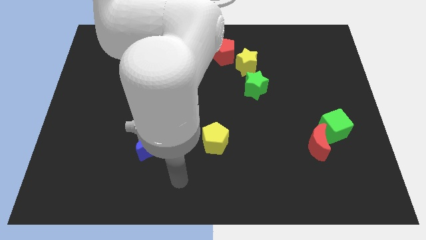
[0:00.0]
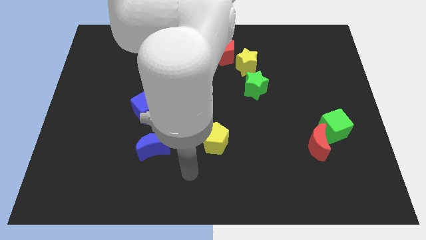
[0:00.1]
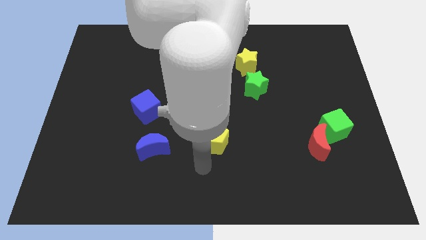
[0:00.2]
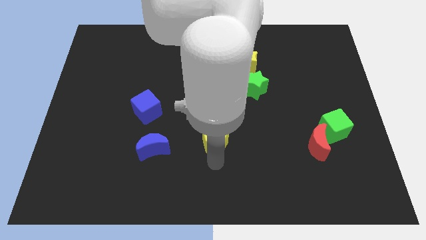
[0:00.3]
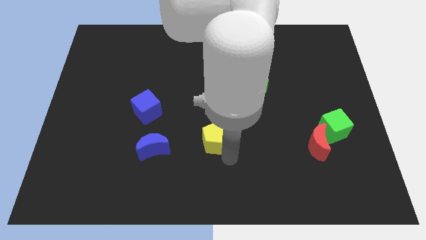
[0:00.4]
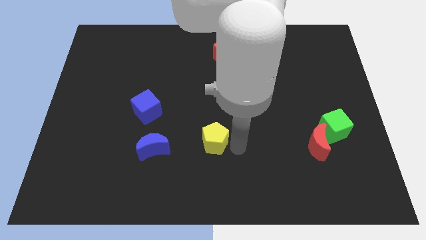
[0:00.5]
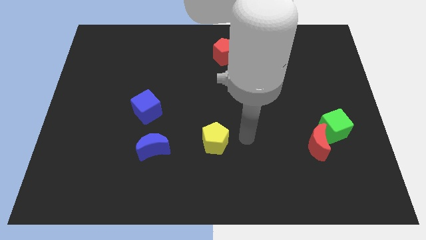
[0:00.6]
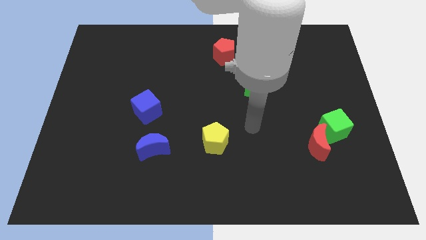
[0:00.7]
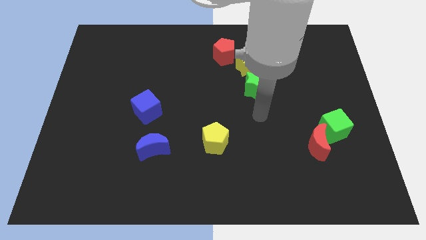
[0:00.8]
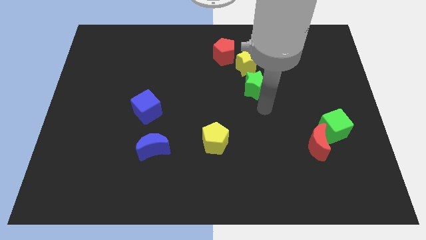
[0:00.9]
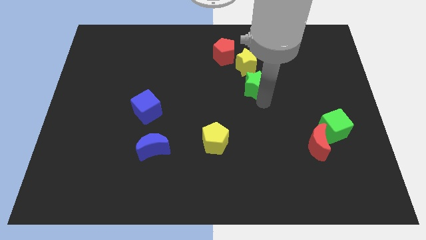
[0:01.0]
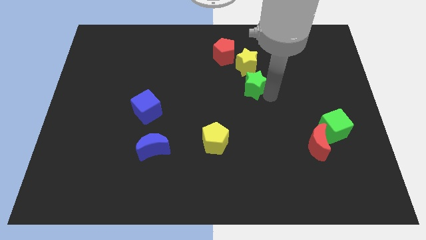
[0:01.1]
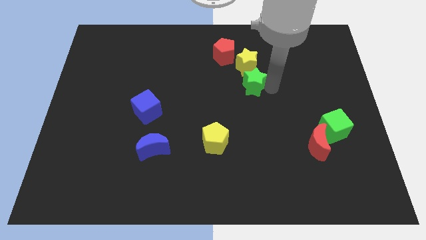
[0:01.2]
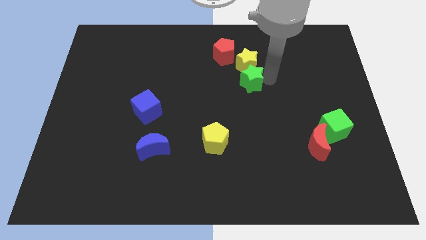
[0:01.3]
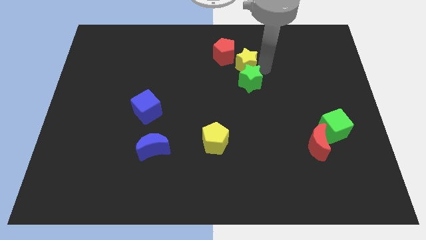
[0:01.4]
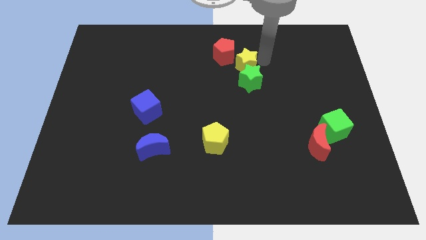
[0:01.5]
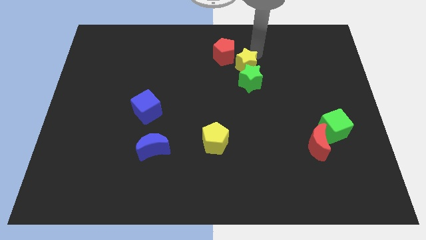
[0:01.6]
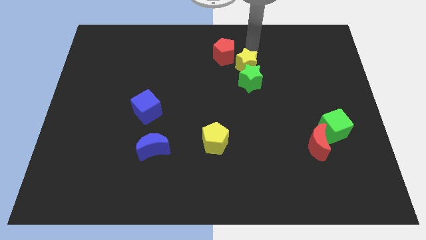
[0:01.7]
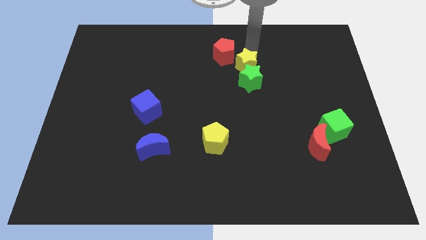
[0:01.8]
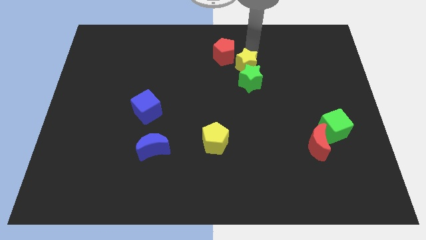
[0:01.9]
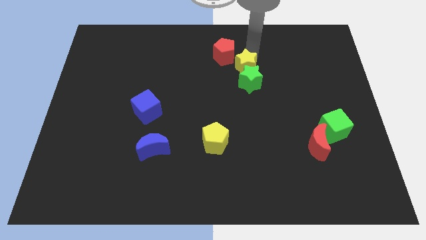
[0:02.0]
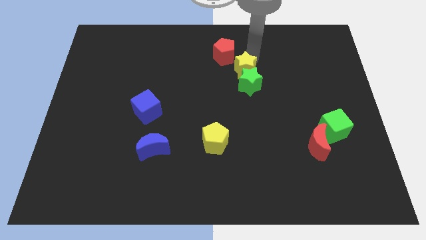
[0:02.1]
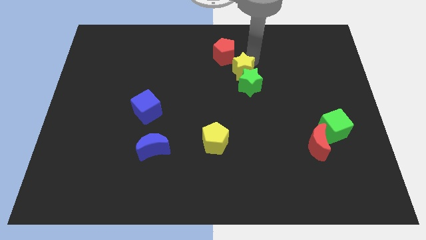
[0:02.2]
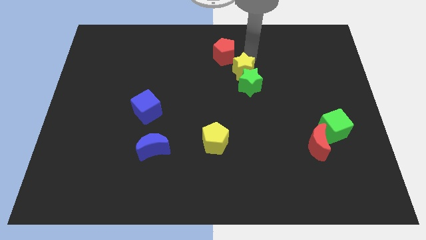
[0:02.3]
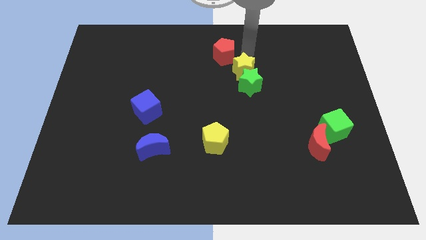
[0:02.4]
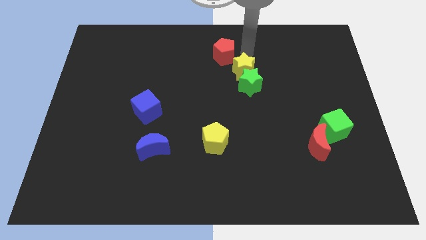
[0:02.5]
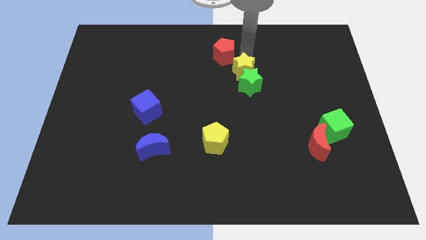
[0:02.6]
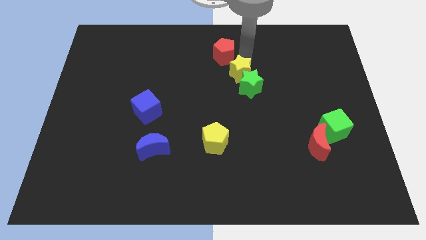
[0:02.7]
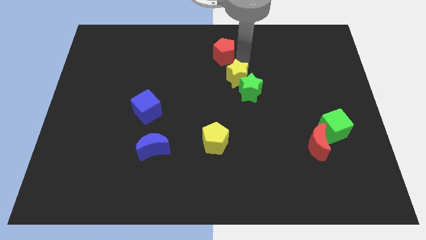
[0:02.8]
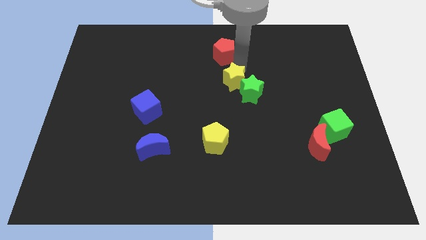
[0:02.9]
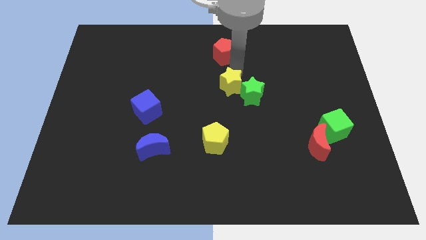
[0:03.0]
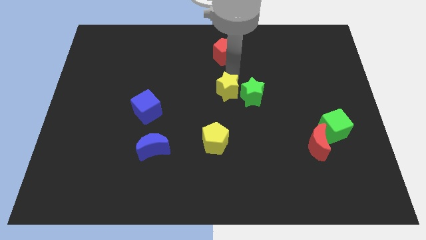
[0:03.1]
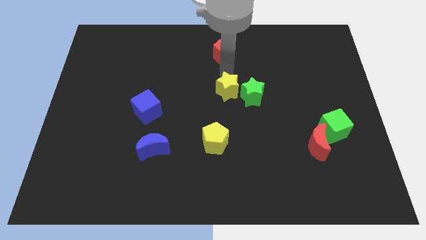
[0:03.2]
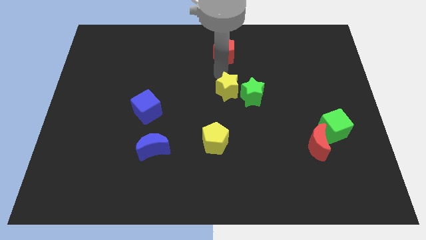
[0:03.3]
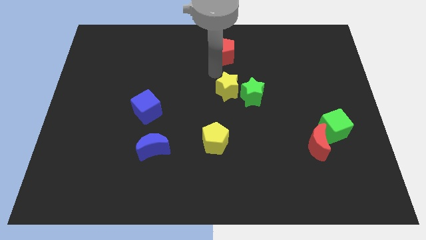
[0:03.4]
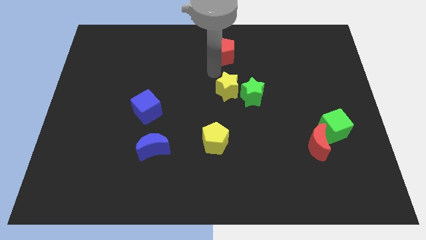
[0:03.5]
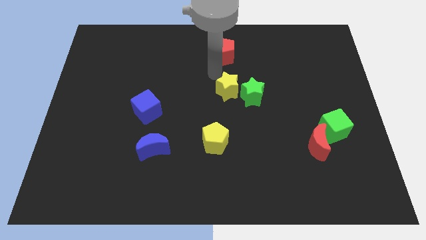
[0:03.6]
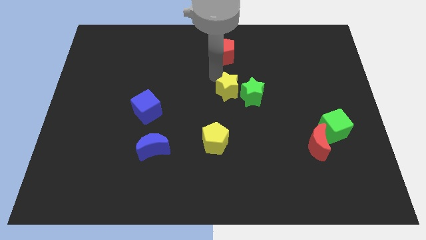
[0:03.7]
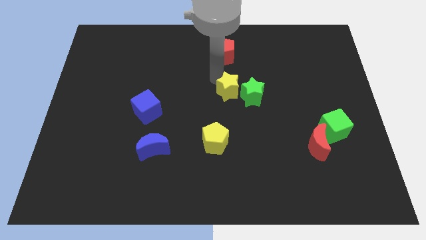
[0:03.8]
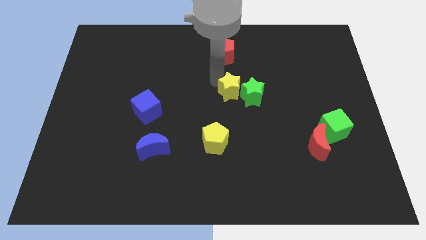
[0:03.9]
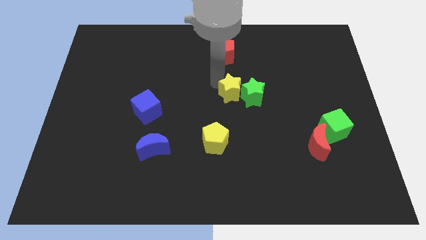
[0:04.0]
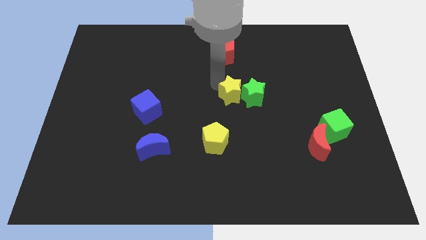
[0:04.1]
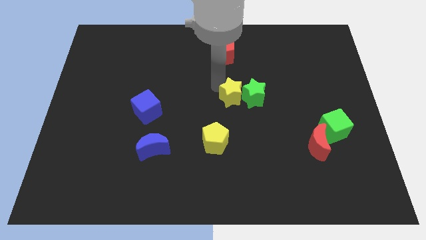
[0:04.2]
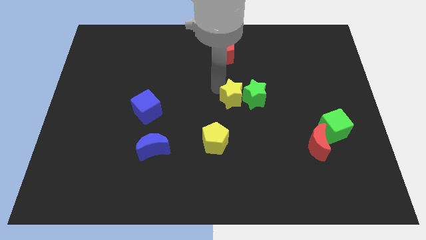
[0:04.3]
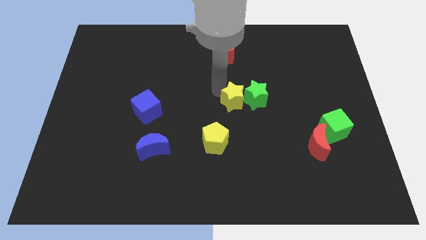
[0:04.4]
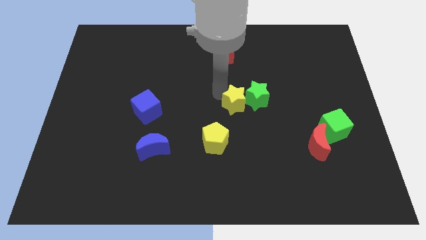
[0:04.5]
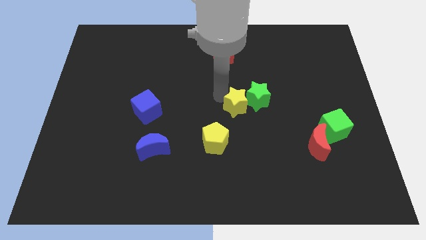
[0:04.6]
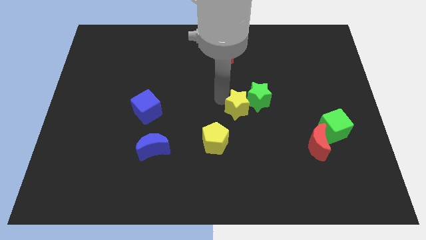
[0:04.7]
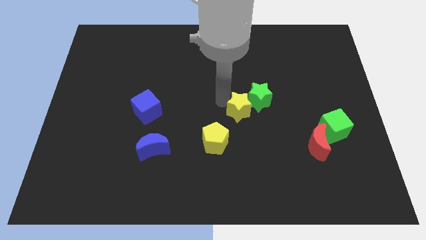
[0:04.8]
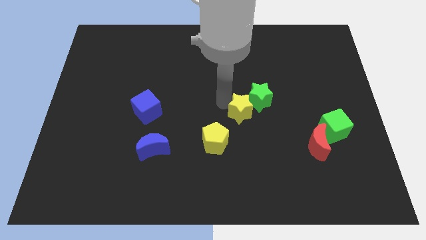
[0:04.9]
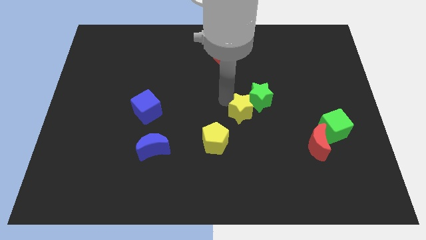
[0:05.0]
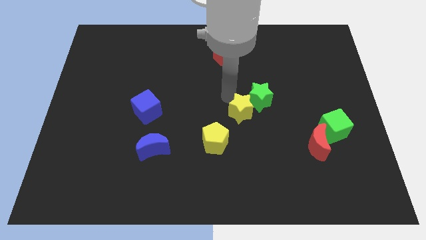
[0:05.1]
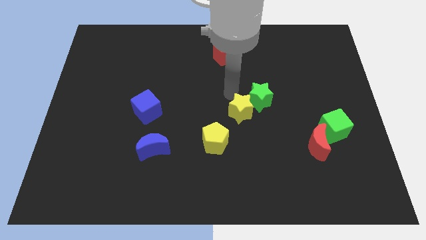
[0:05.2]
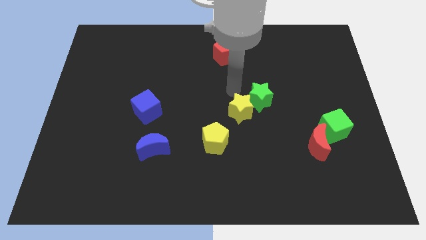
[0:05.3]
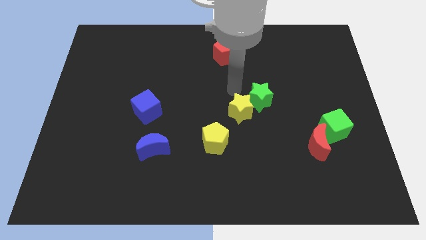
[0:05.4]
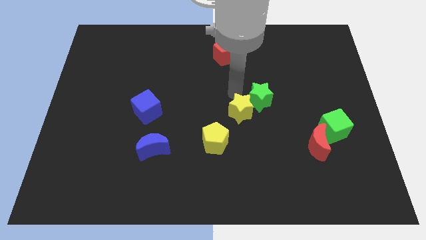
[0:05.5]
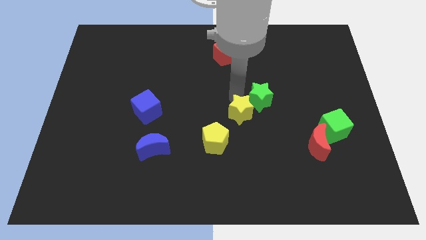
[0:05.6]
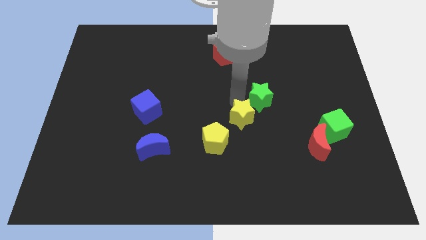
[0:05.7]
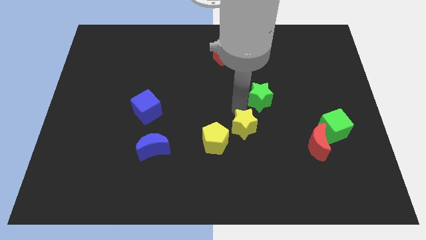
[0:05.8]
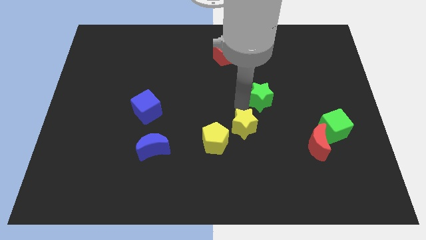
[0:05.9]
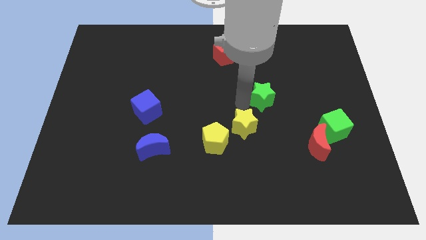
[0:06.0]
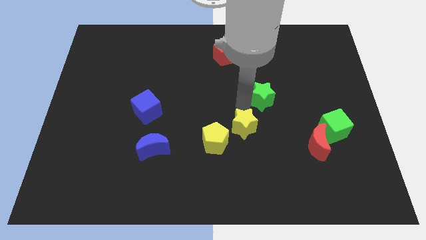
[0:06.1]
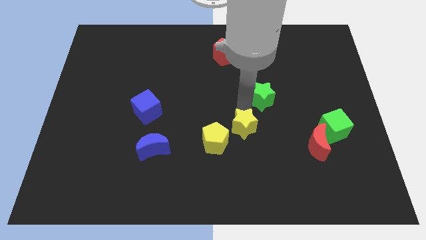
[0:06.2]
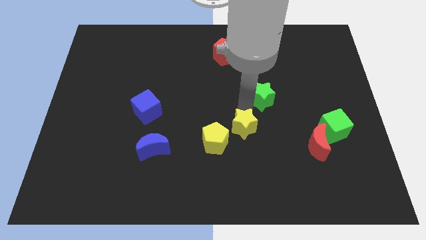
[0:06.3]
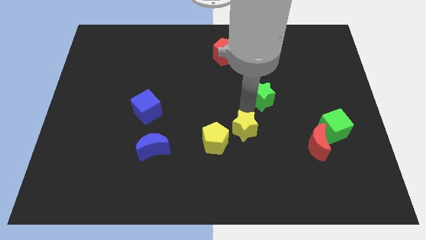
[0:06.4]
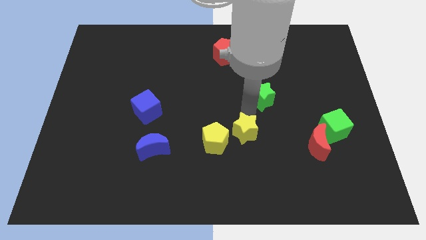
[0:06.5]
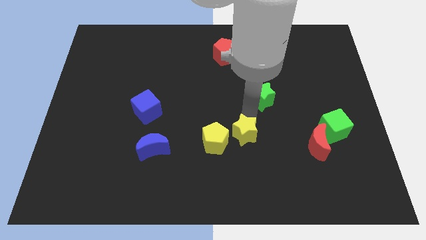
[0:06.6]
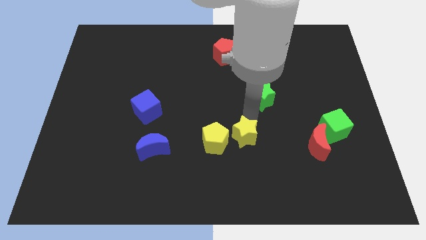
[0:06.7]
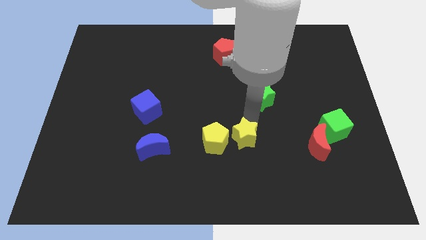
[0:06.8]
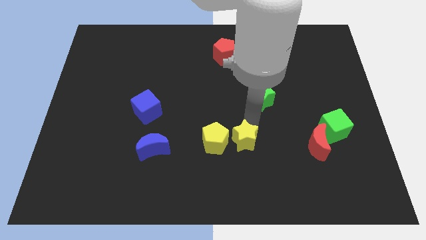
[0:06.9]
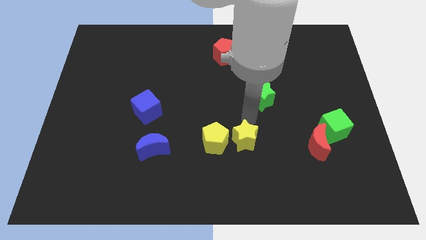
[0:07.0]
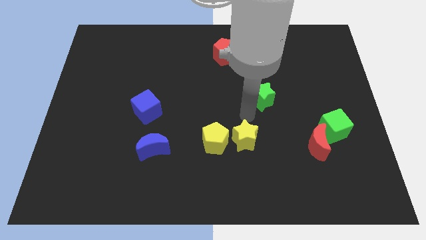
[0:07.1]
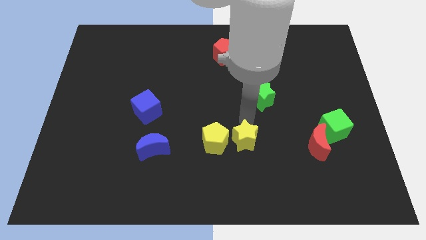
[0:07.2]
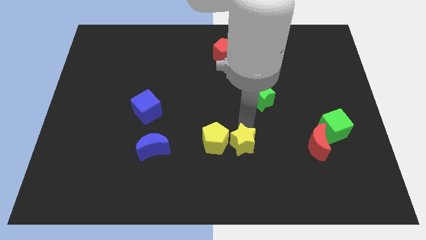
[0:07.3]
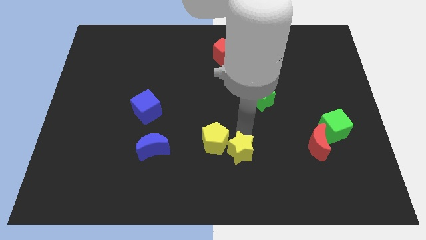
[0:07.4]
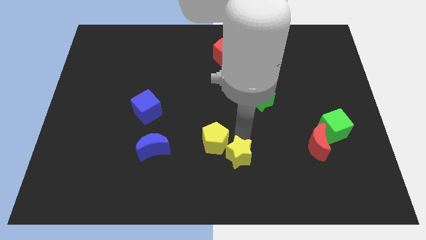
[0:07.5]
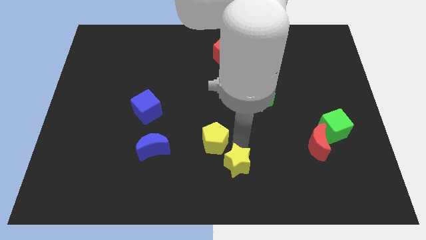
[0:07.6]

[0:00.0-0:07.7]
push the yellow star to the bottom
